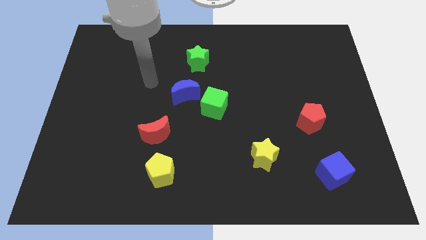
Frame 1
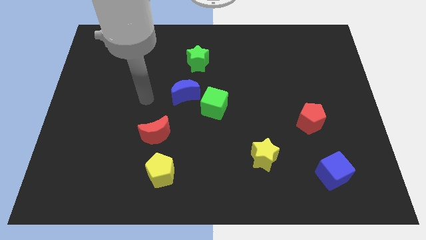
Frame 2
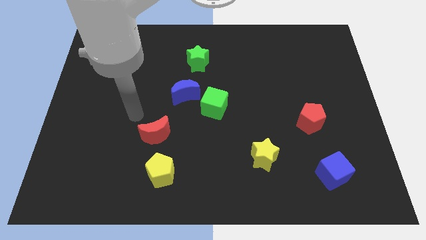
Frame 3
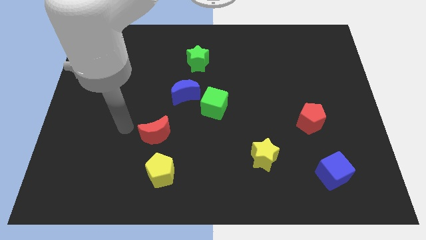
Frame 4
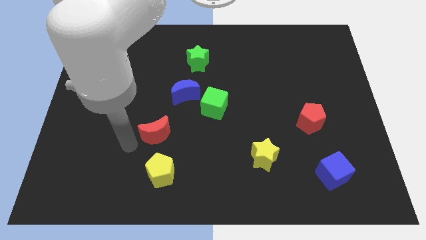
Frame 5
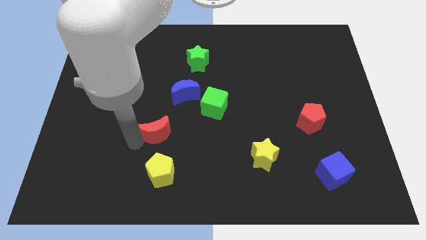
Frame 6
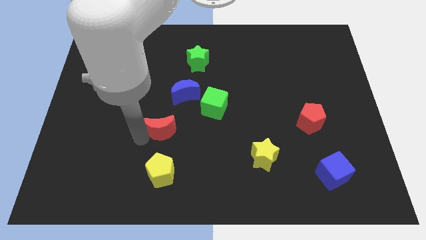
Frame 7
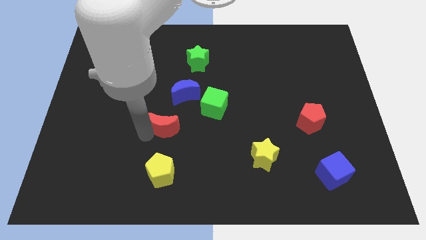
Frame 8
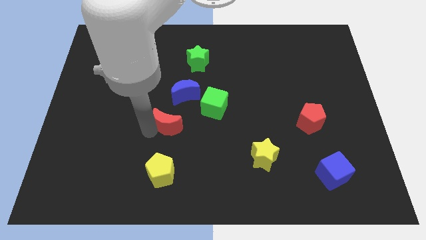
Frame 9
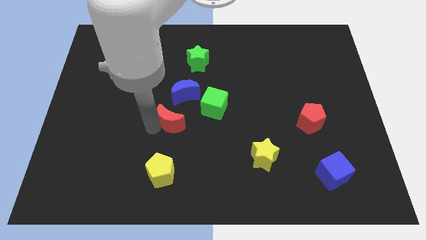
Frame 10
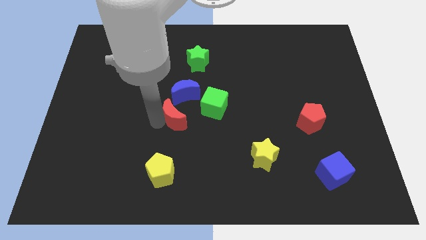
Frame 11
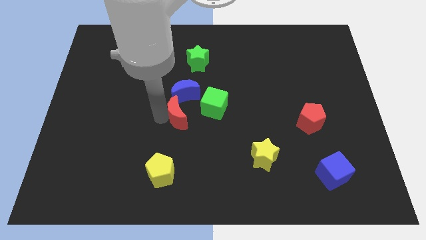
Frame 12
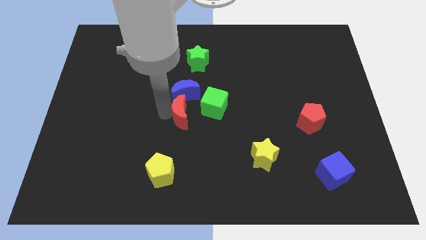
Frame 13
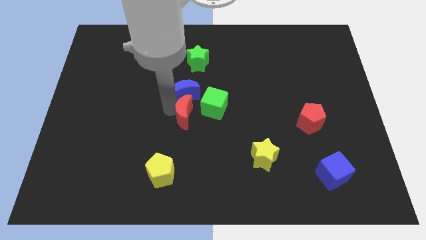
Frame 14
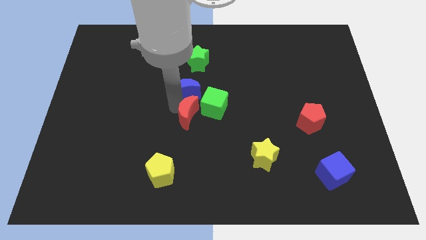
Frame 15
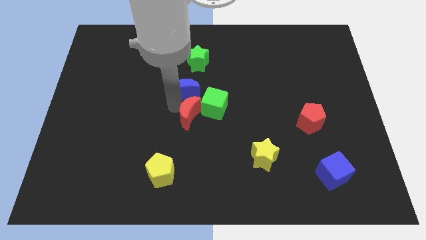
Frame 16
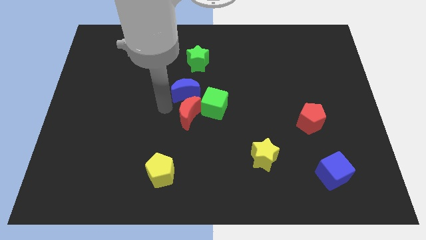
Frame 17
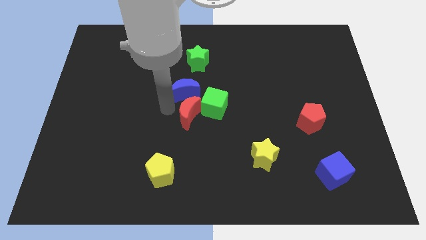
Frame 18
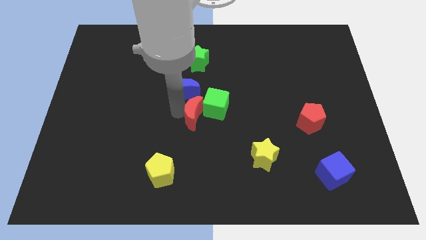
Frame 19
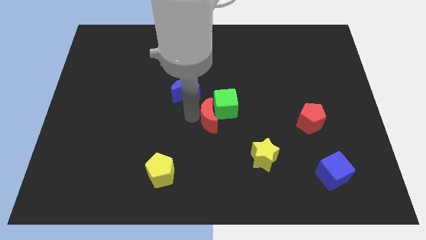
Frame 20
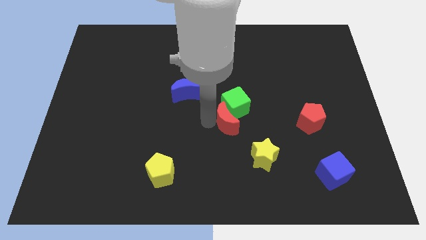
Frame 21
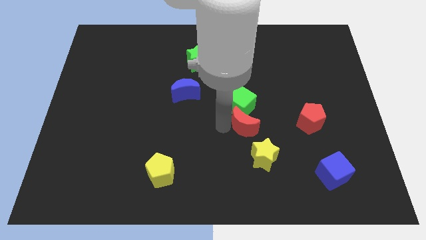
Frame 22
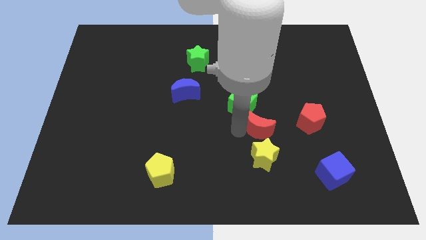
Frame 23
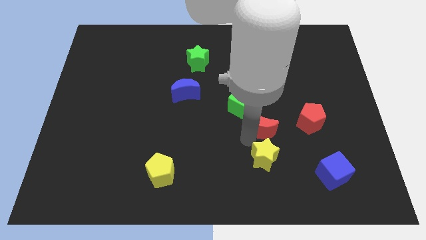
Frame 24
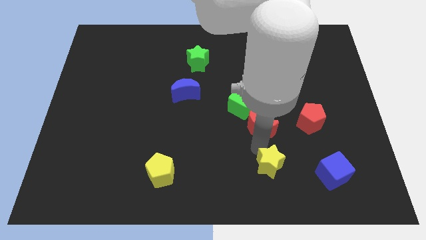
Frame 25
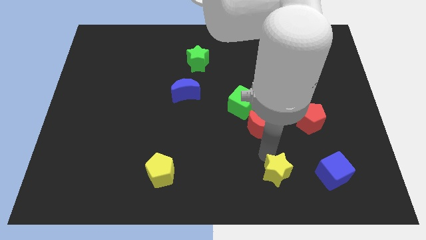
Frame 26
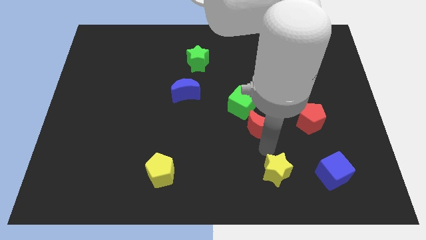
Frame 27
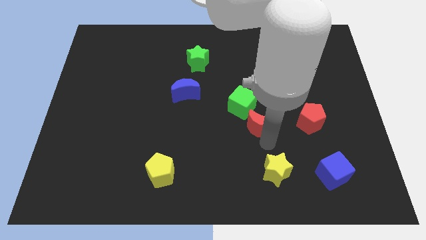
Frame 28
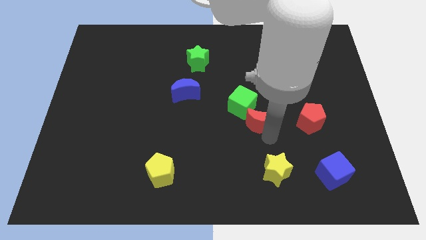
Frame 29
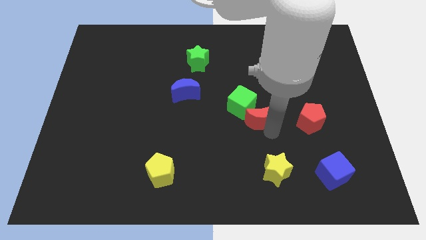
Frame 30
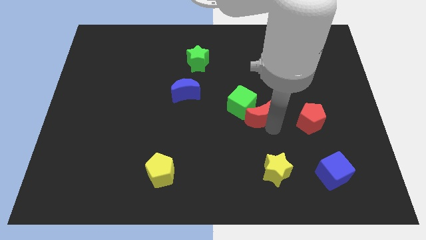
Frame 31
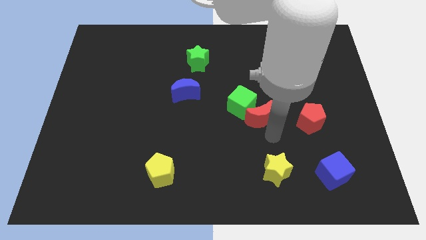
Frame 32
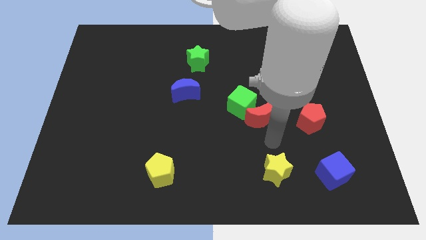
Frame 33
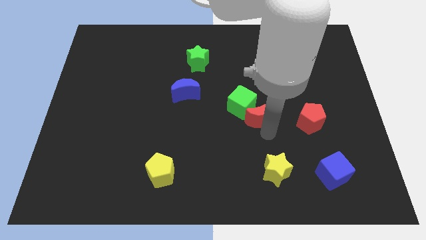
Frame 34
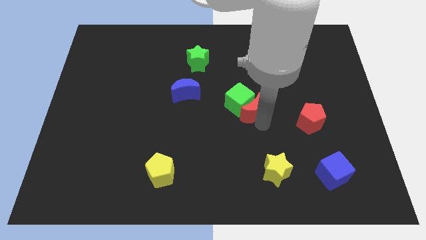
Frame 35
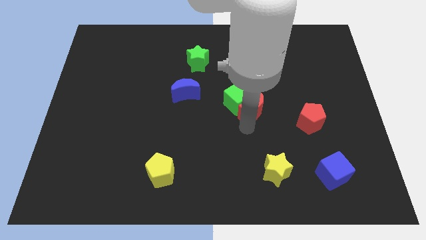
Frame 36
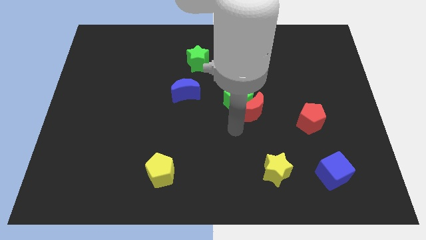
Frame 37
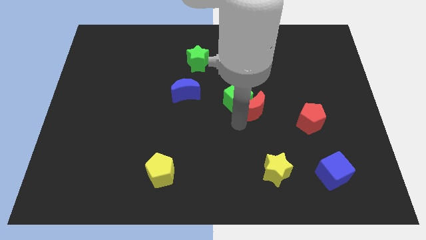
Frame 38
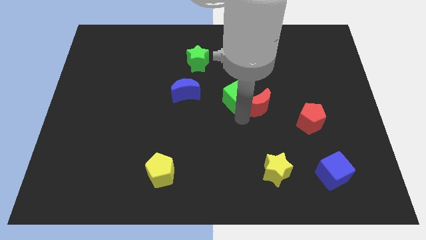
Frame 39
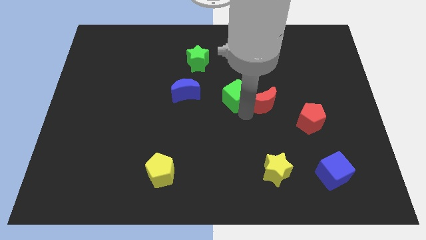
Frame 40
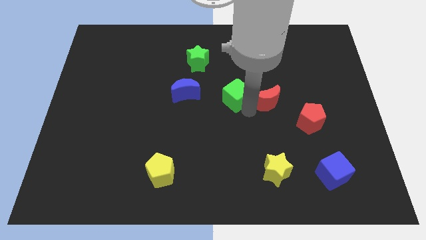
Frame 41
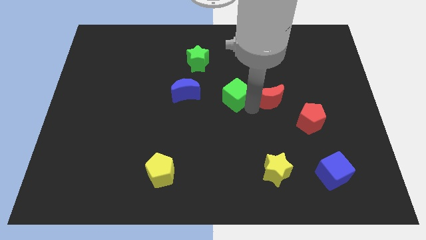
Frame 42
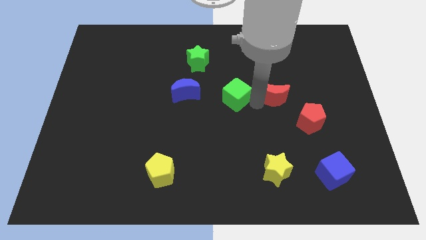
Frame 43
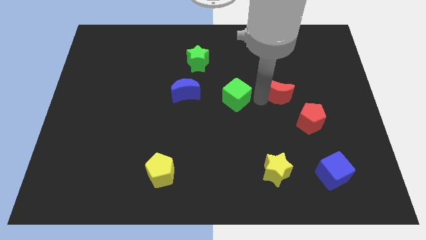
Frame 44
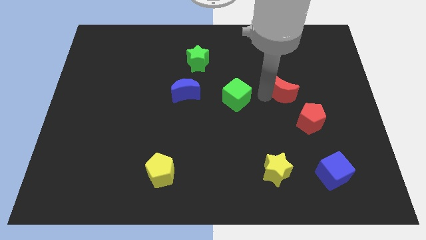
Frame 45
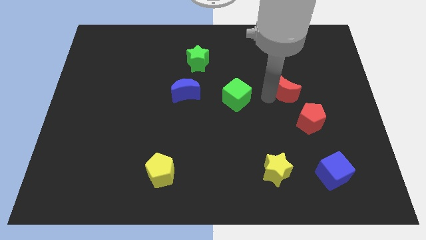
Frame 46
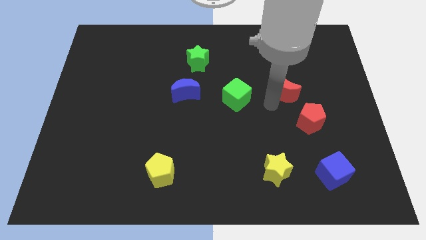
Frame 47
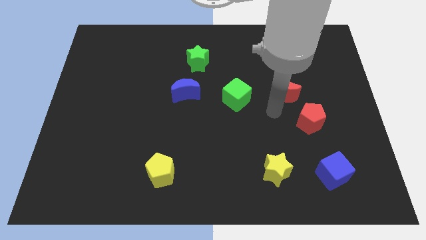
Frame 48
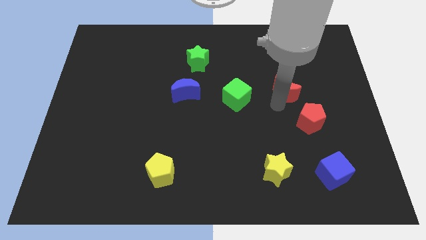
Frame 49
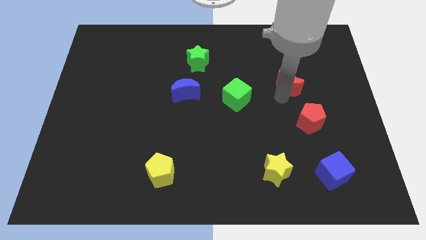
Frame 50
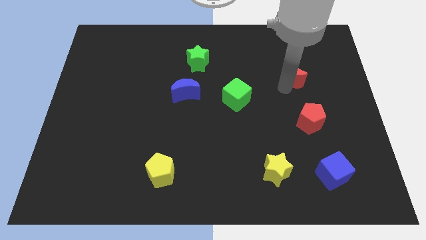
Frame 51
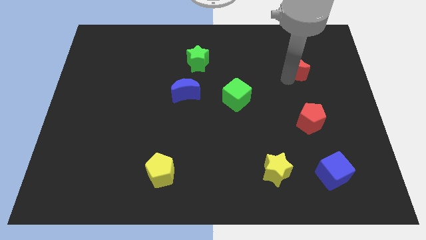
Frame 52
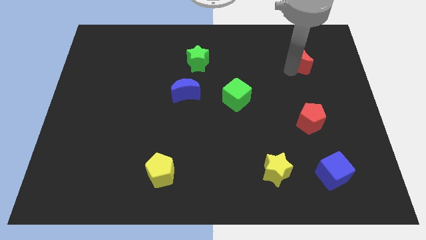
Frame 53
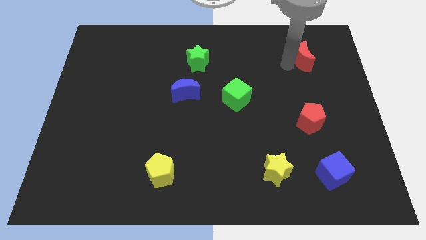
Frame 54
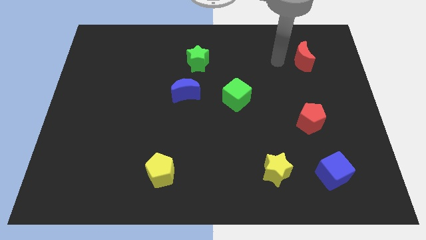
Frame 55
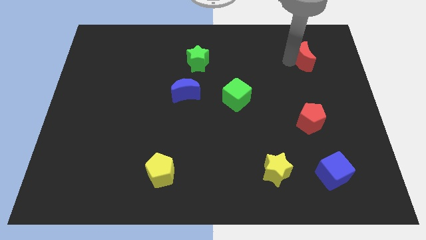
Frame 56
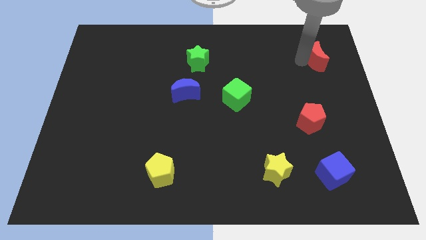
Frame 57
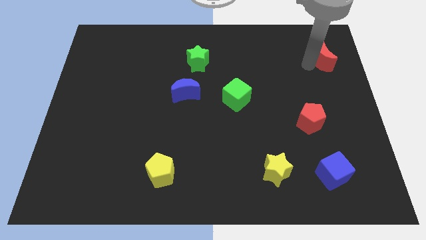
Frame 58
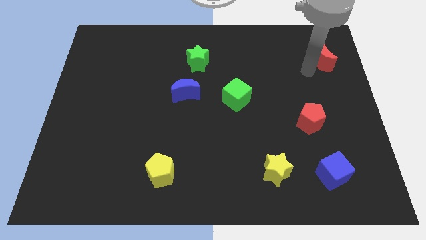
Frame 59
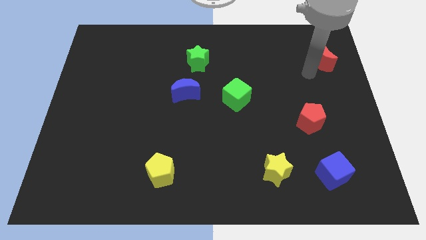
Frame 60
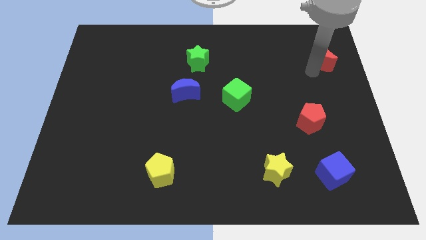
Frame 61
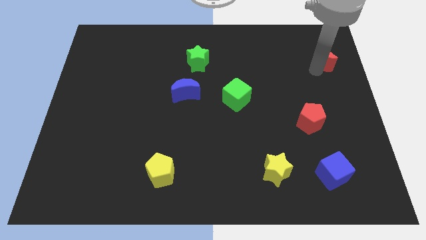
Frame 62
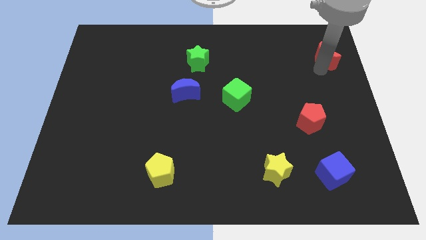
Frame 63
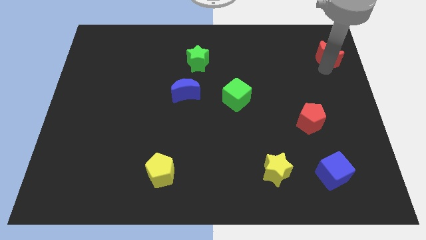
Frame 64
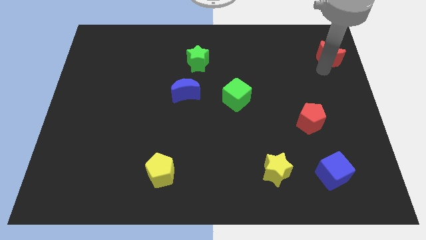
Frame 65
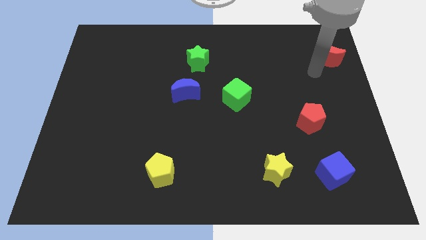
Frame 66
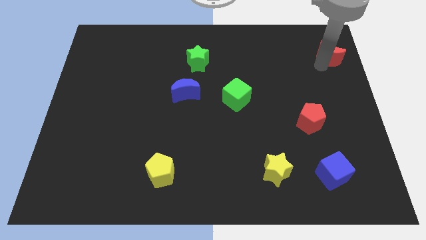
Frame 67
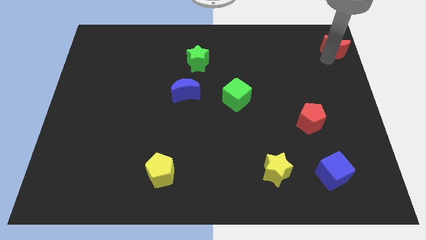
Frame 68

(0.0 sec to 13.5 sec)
slide the red moon to the top right corner

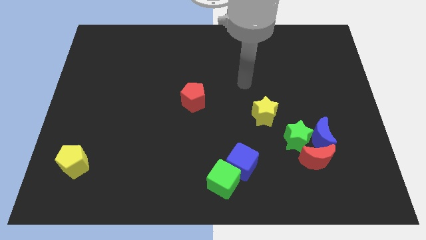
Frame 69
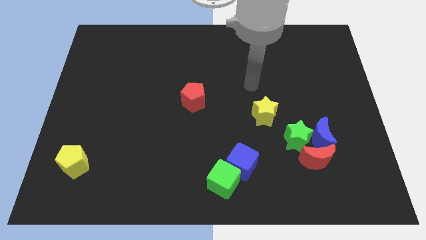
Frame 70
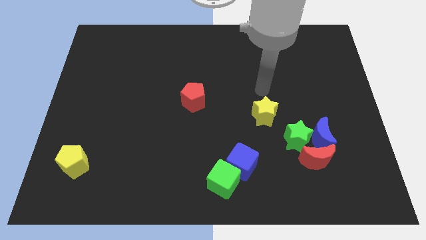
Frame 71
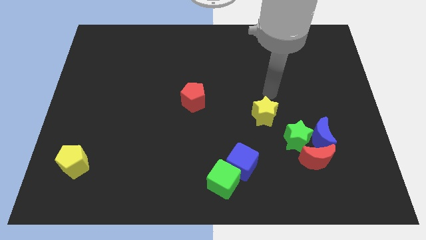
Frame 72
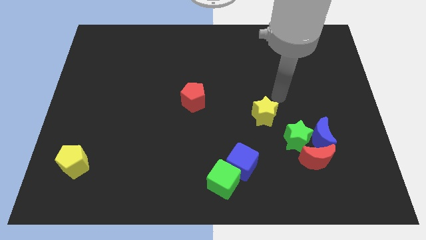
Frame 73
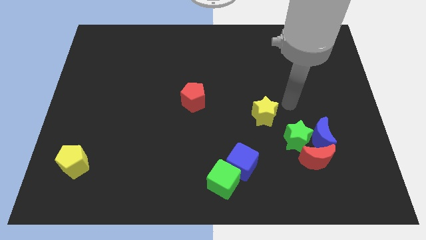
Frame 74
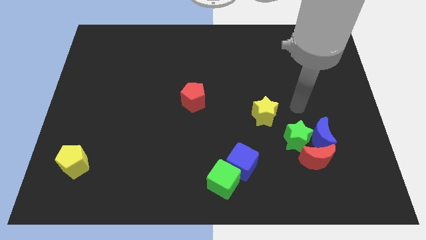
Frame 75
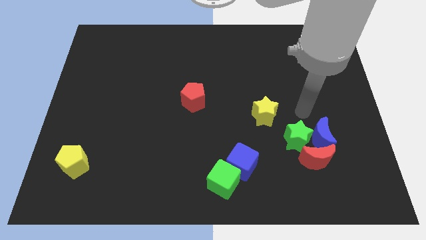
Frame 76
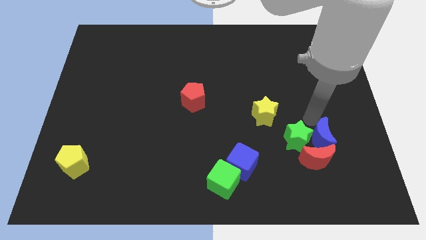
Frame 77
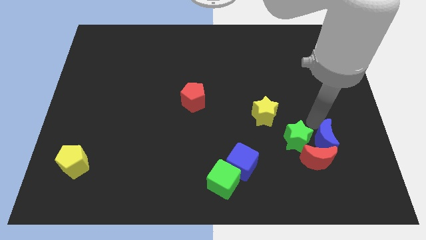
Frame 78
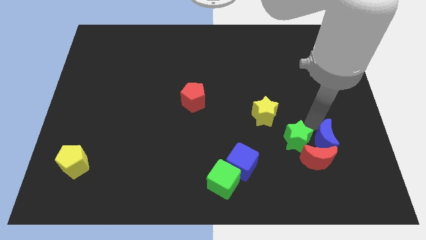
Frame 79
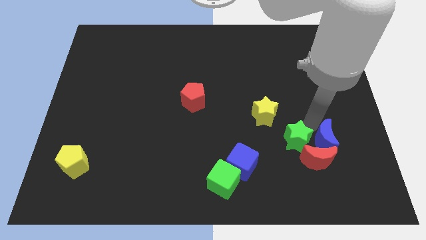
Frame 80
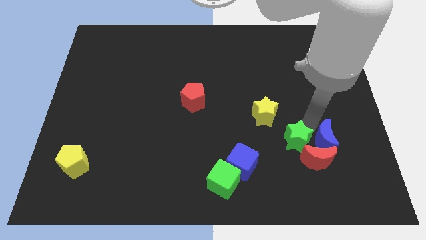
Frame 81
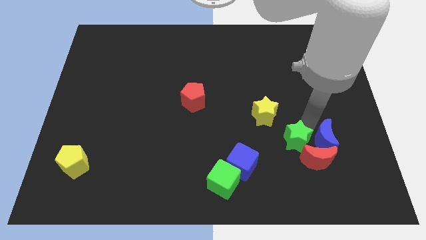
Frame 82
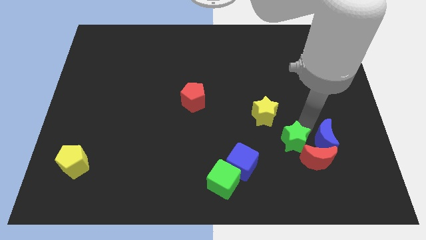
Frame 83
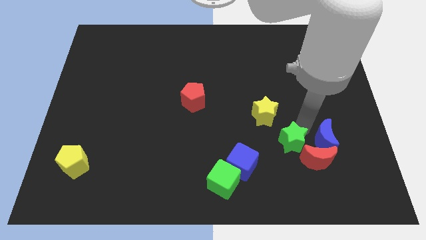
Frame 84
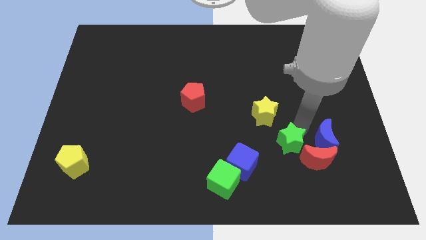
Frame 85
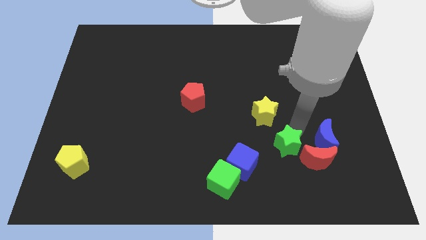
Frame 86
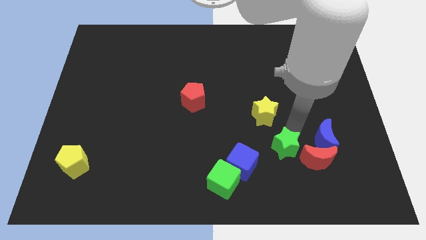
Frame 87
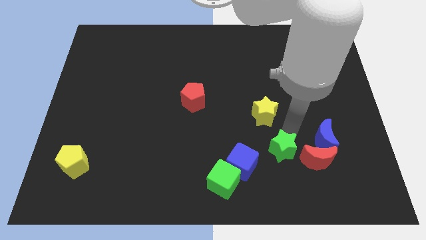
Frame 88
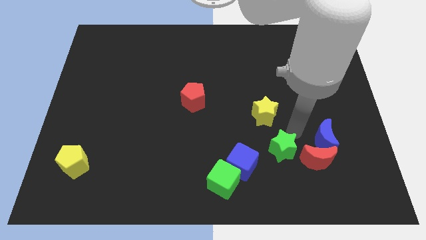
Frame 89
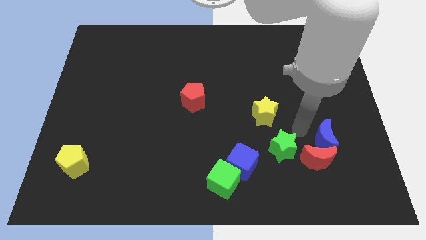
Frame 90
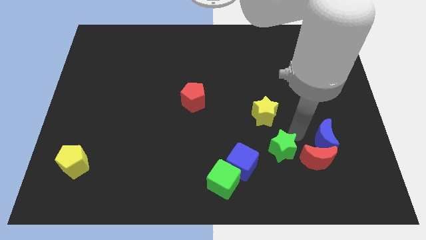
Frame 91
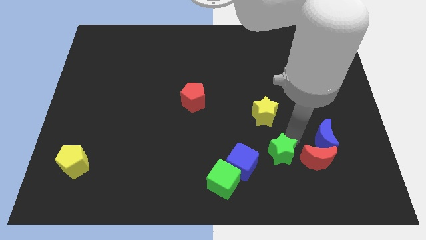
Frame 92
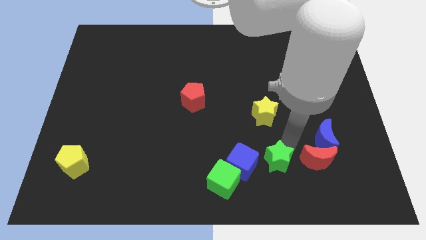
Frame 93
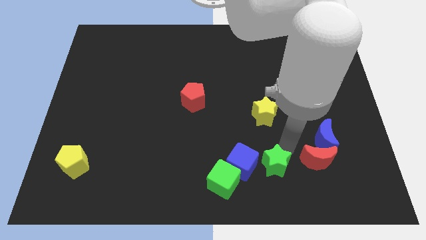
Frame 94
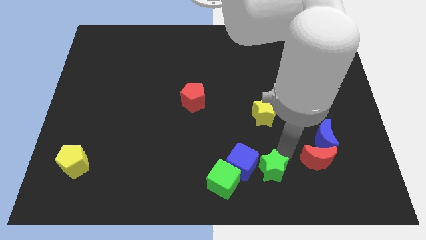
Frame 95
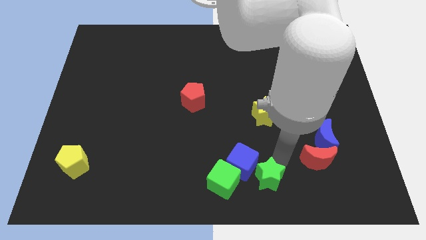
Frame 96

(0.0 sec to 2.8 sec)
put the green star to the bottom
